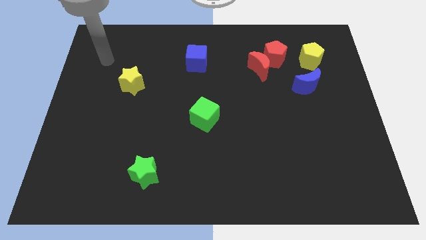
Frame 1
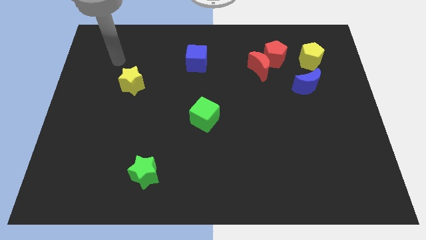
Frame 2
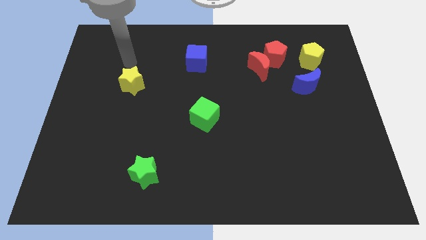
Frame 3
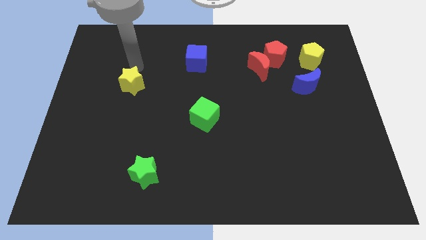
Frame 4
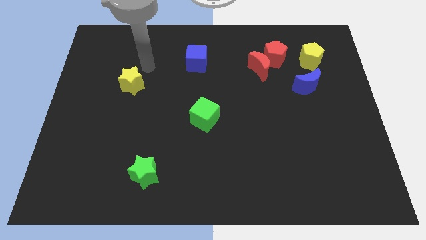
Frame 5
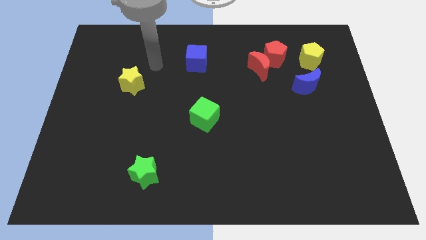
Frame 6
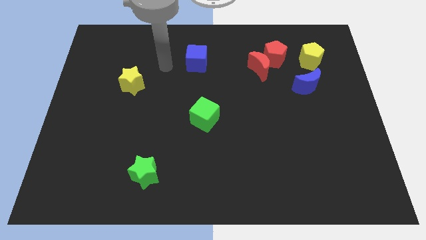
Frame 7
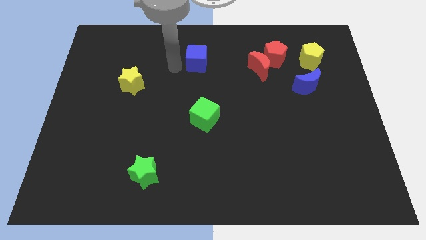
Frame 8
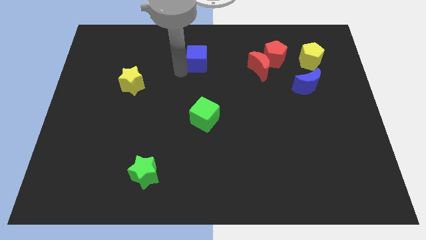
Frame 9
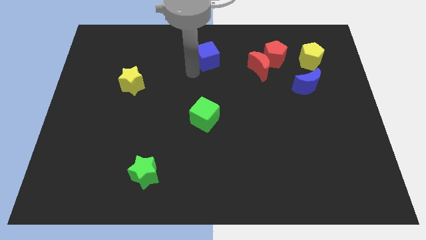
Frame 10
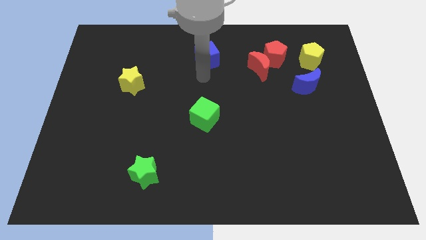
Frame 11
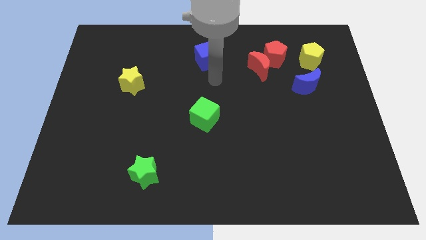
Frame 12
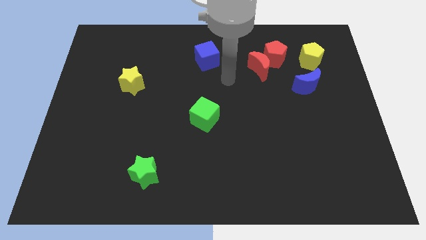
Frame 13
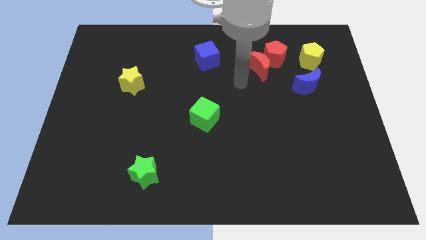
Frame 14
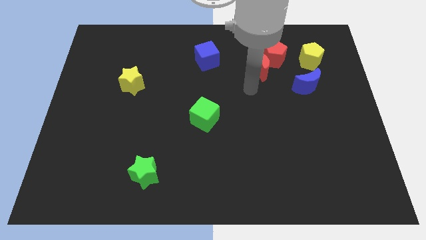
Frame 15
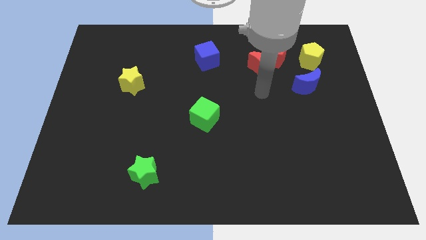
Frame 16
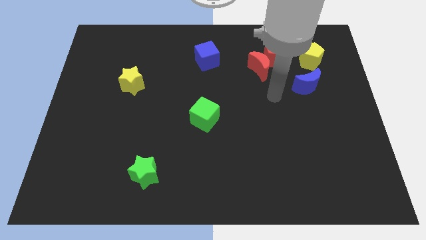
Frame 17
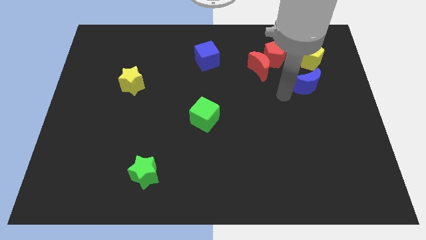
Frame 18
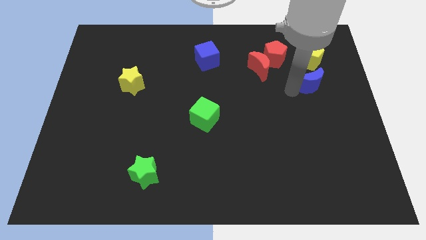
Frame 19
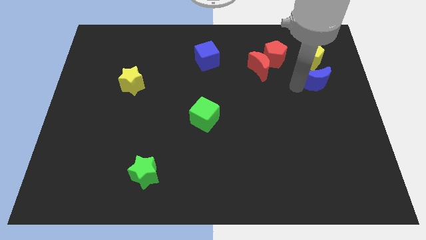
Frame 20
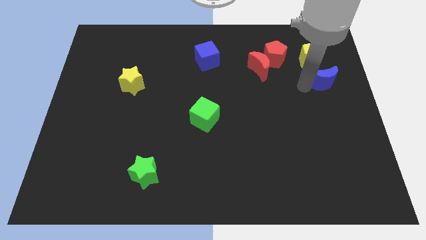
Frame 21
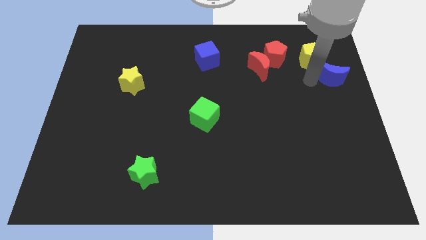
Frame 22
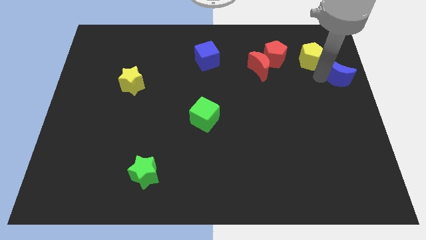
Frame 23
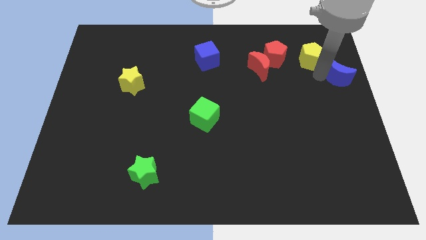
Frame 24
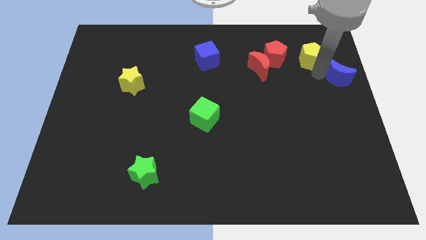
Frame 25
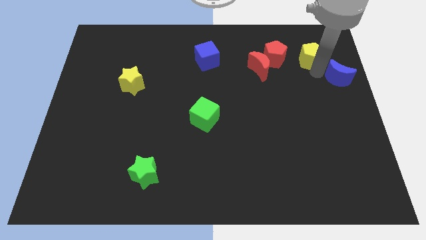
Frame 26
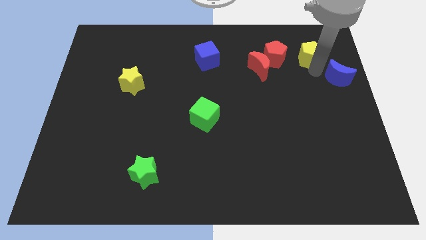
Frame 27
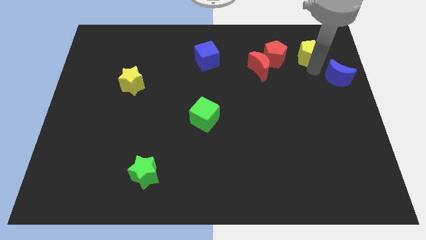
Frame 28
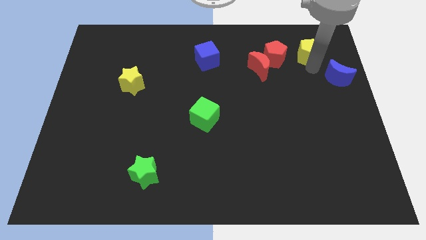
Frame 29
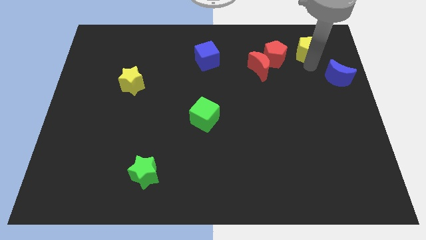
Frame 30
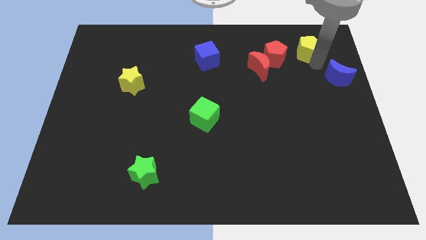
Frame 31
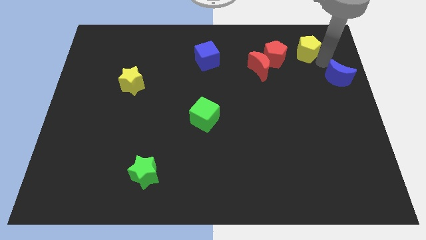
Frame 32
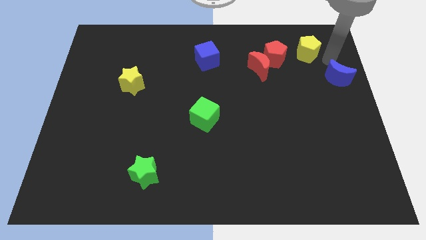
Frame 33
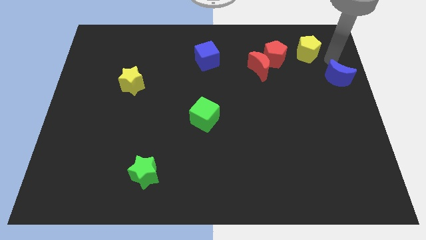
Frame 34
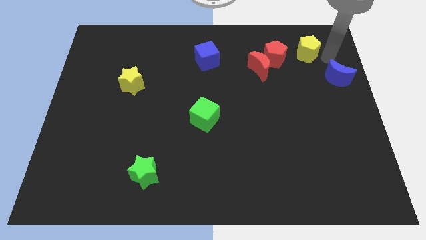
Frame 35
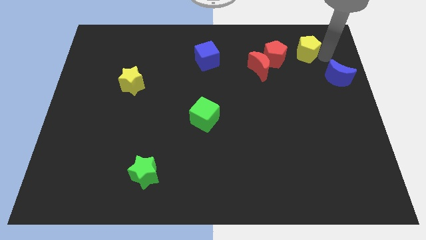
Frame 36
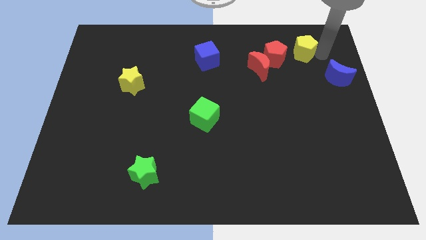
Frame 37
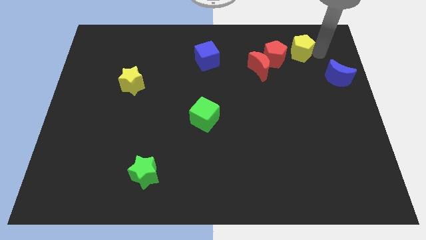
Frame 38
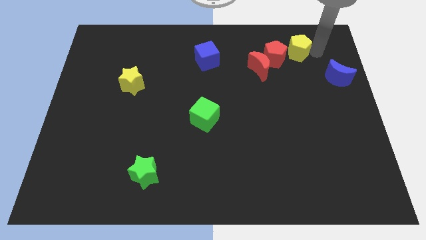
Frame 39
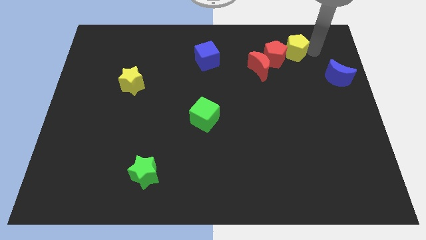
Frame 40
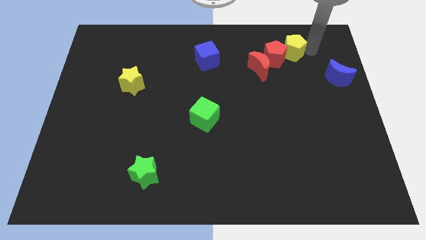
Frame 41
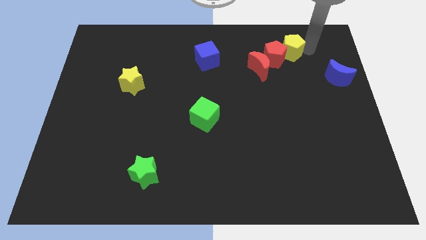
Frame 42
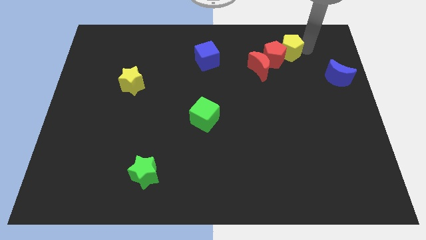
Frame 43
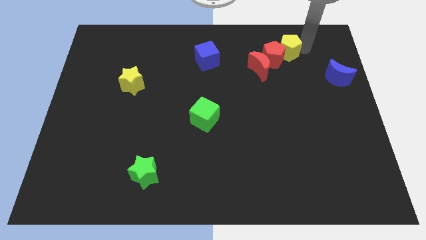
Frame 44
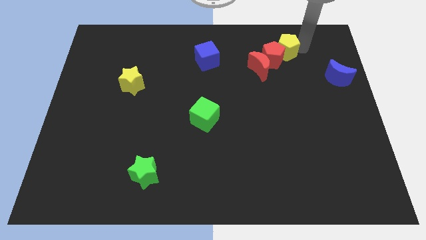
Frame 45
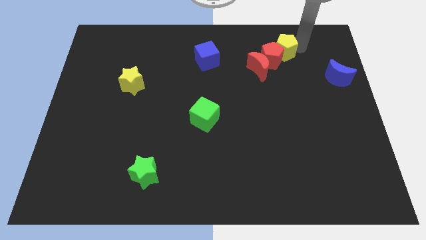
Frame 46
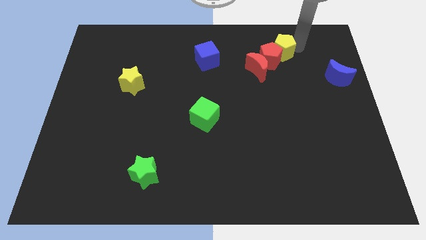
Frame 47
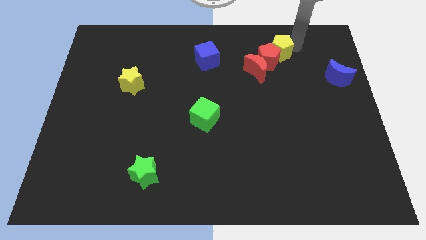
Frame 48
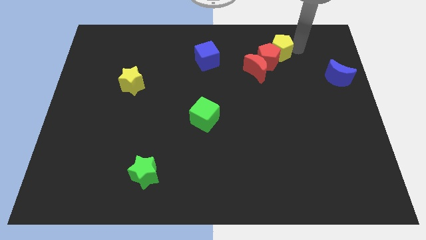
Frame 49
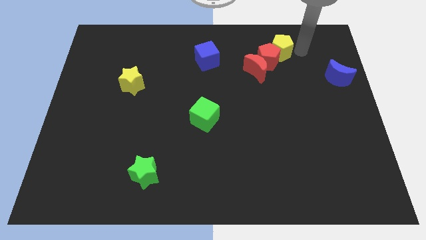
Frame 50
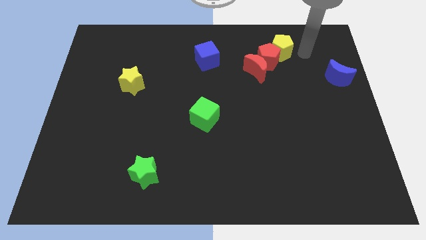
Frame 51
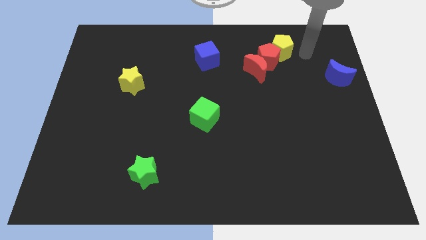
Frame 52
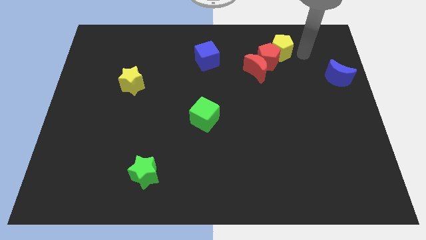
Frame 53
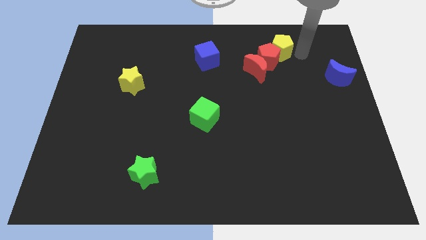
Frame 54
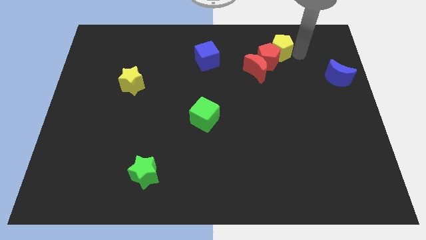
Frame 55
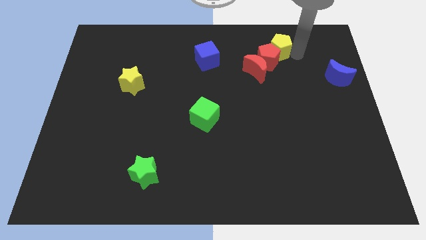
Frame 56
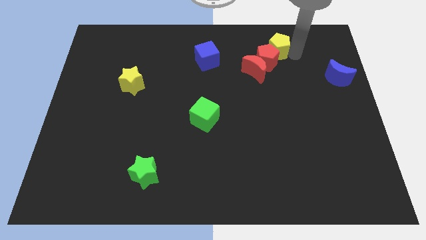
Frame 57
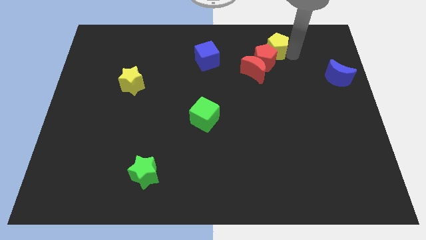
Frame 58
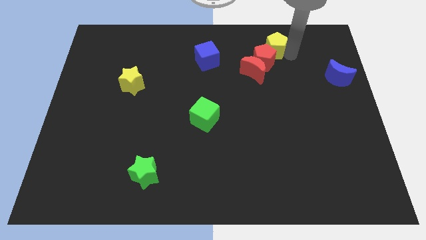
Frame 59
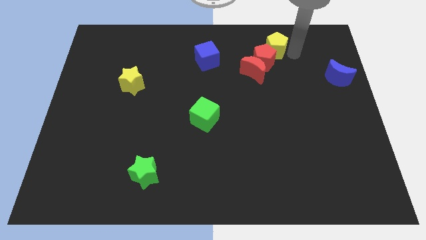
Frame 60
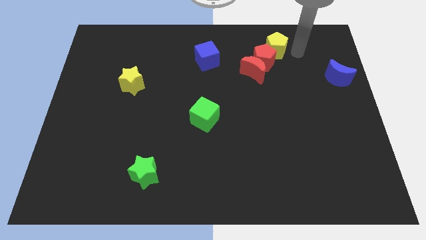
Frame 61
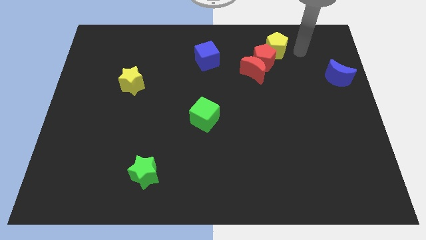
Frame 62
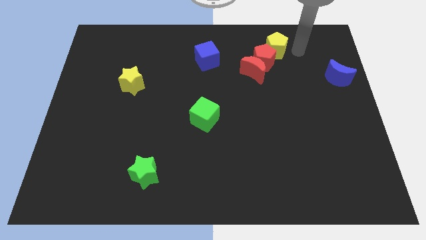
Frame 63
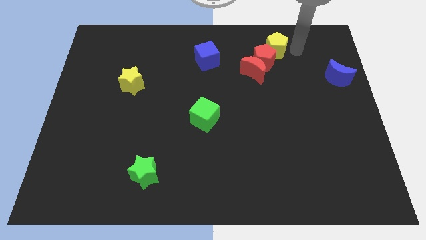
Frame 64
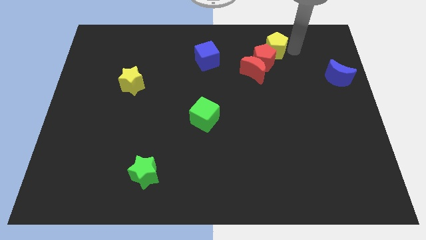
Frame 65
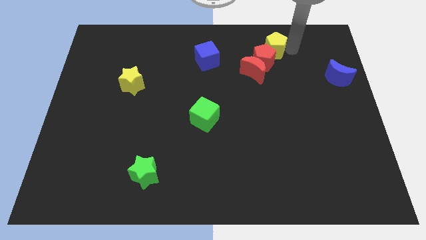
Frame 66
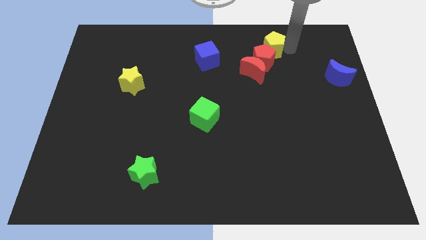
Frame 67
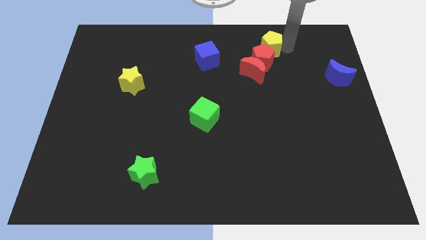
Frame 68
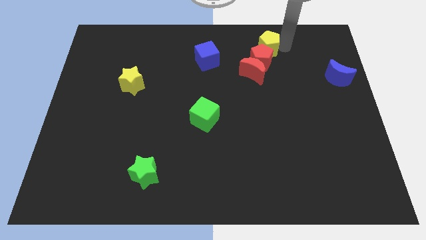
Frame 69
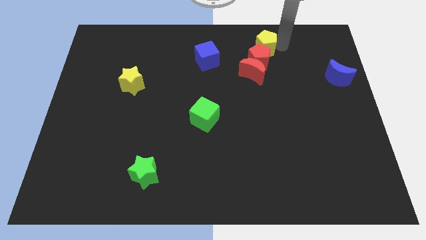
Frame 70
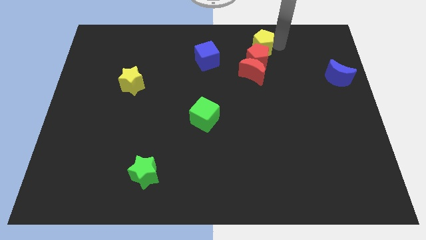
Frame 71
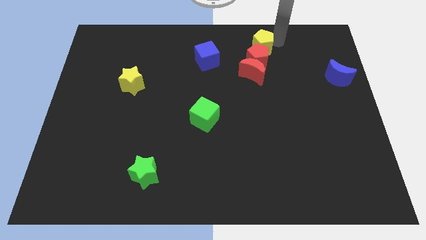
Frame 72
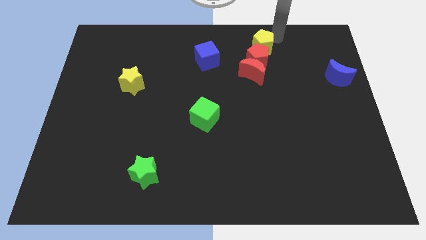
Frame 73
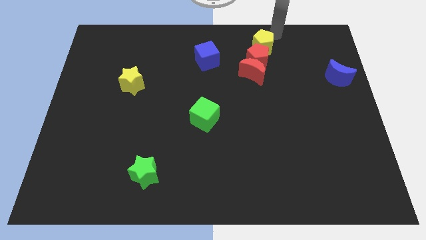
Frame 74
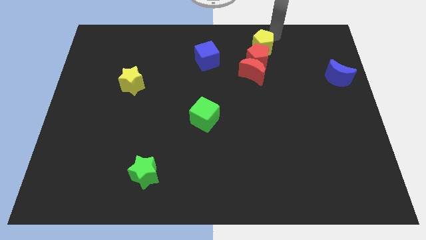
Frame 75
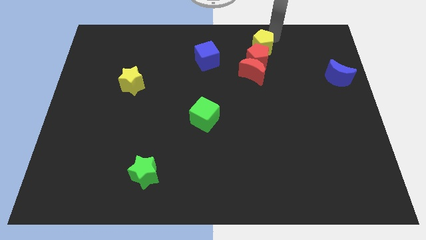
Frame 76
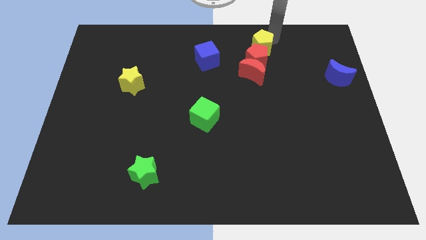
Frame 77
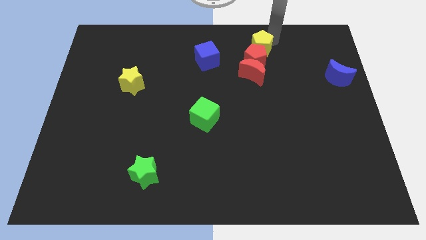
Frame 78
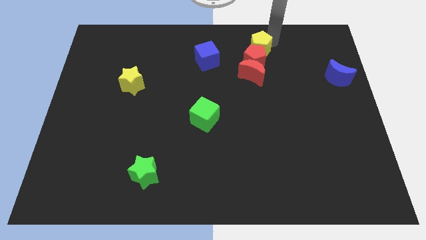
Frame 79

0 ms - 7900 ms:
put the yellow pentagon to the right side of the blue cube
